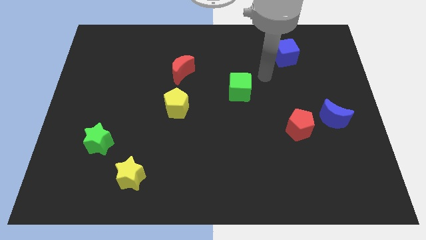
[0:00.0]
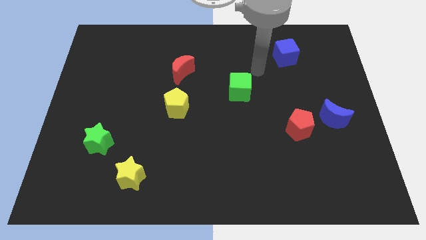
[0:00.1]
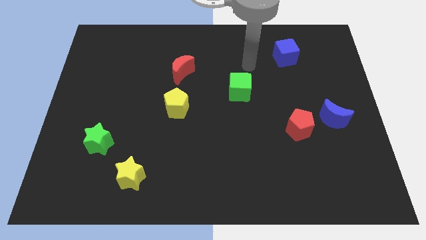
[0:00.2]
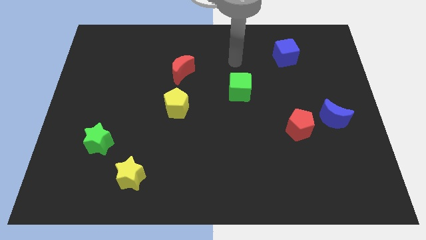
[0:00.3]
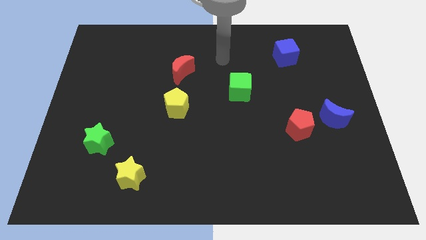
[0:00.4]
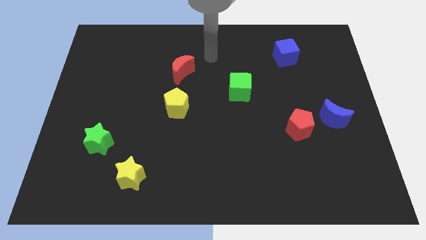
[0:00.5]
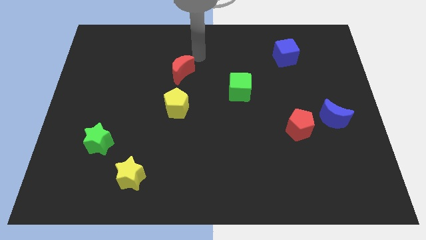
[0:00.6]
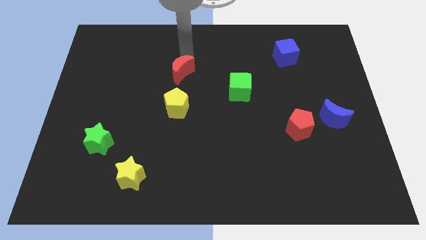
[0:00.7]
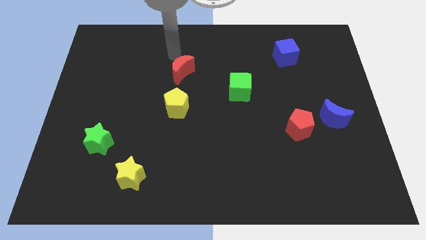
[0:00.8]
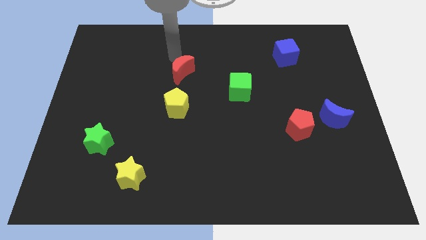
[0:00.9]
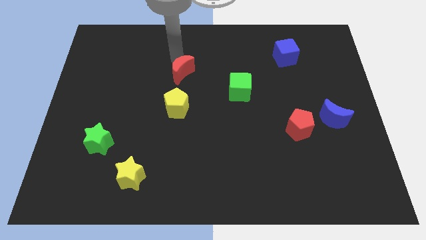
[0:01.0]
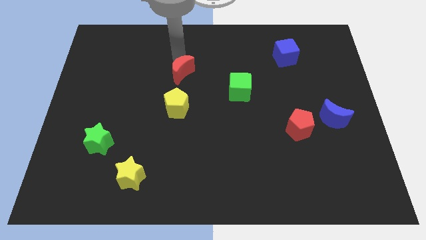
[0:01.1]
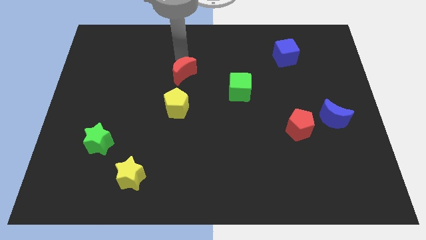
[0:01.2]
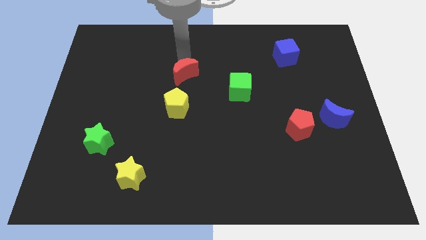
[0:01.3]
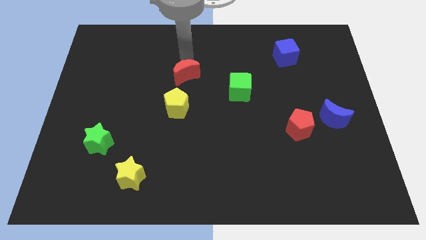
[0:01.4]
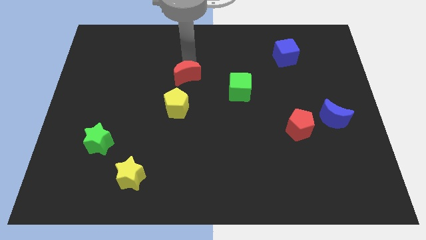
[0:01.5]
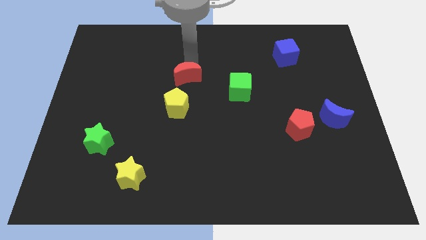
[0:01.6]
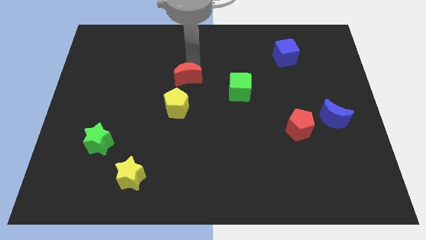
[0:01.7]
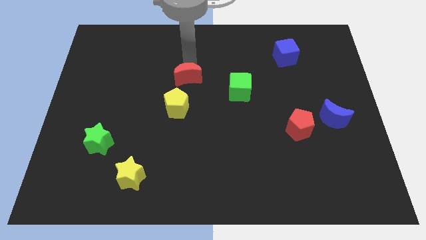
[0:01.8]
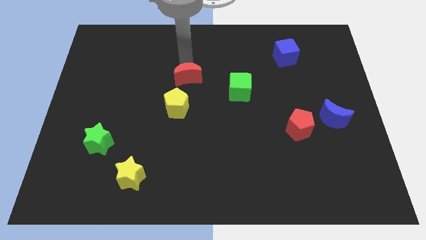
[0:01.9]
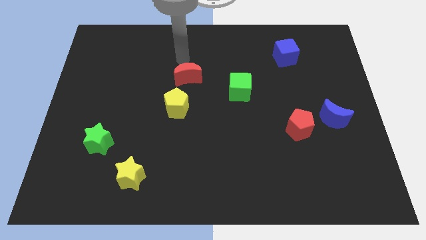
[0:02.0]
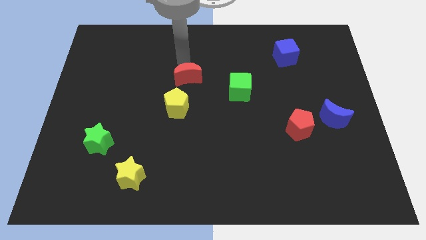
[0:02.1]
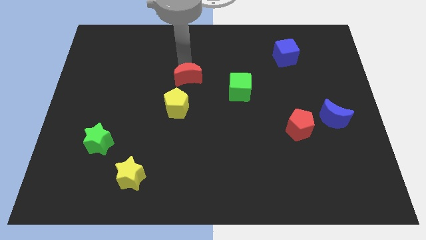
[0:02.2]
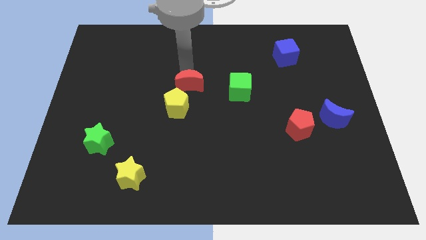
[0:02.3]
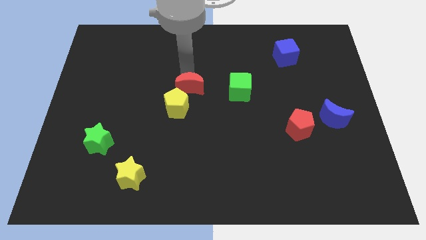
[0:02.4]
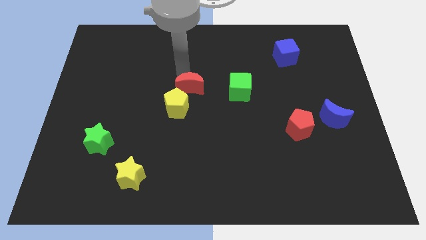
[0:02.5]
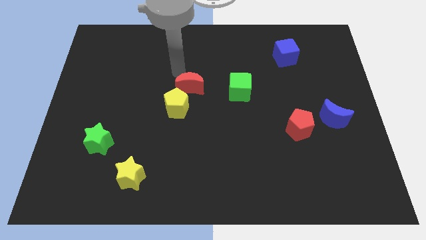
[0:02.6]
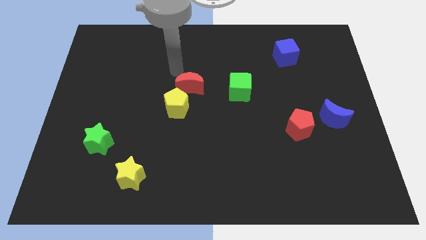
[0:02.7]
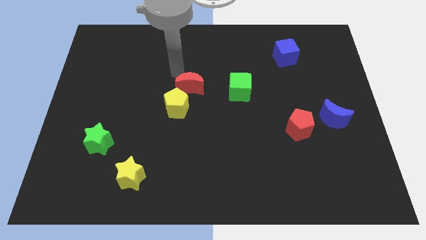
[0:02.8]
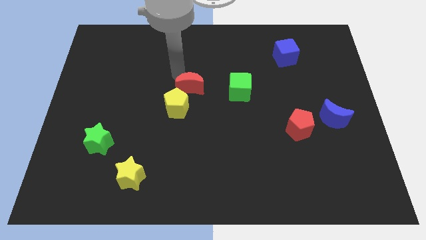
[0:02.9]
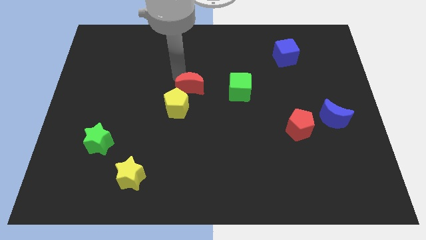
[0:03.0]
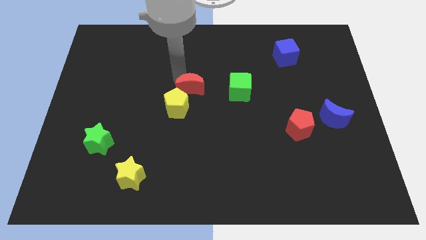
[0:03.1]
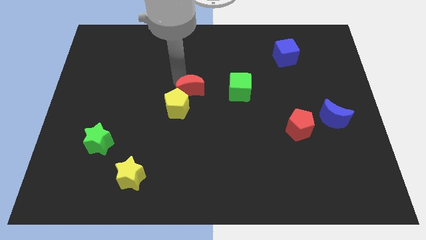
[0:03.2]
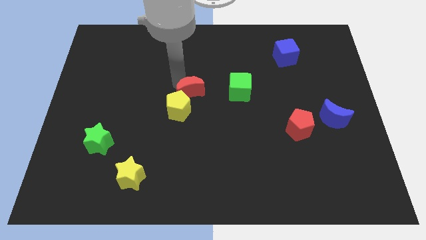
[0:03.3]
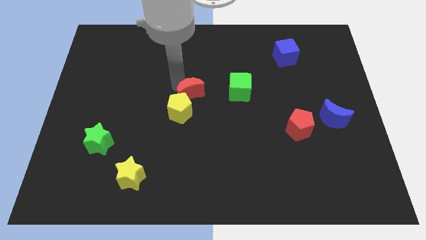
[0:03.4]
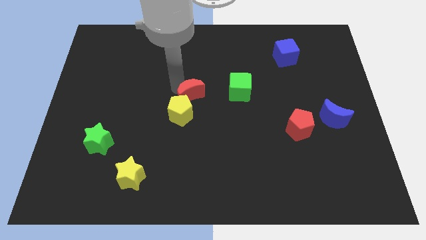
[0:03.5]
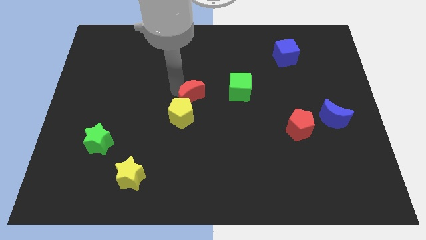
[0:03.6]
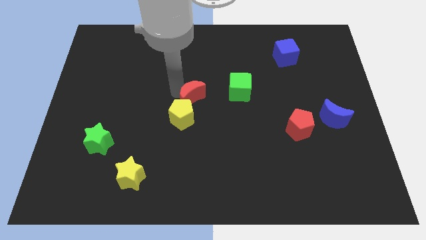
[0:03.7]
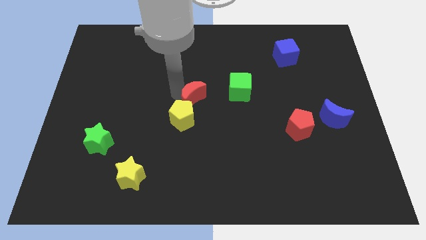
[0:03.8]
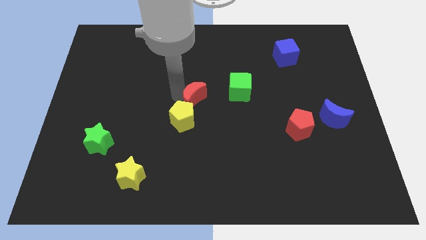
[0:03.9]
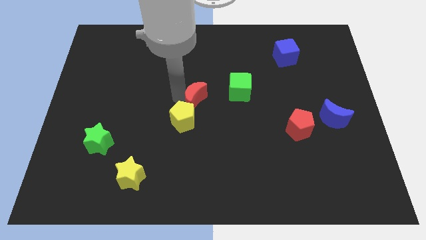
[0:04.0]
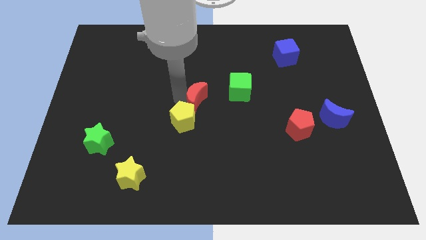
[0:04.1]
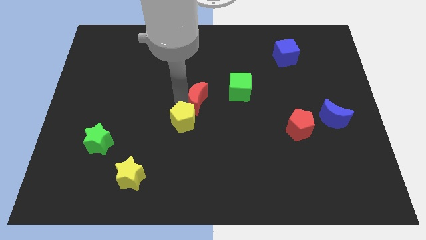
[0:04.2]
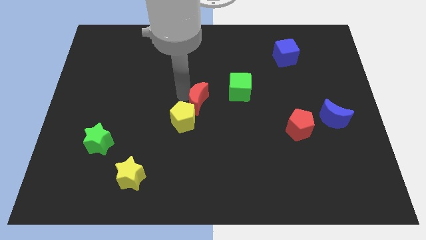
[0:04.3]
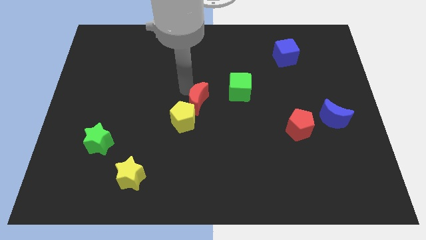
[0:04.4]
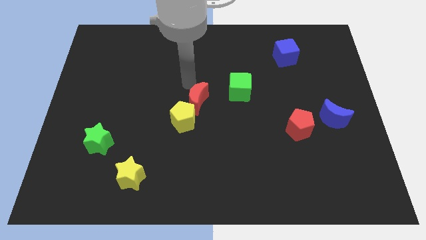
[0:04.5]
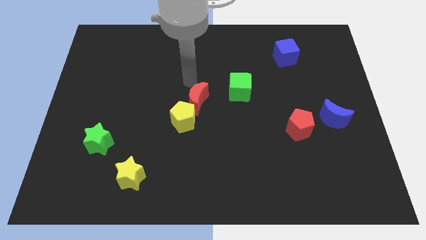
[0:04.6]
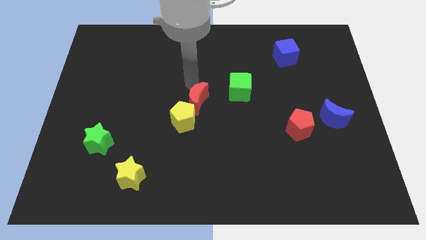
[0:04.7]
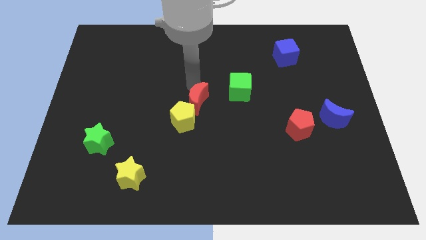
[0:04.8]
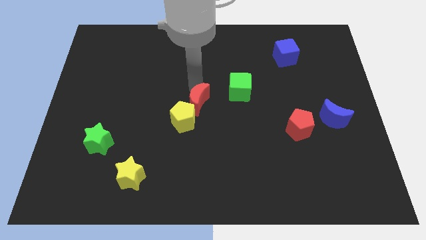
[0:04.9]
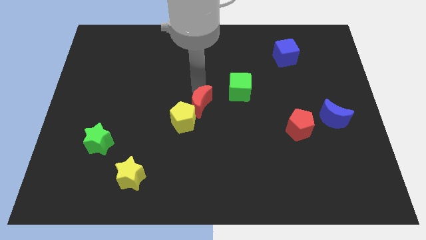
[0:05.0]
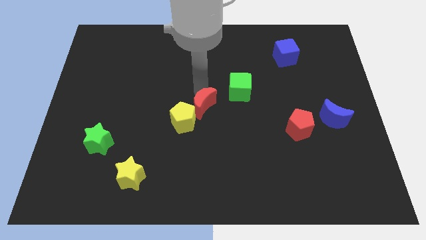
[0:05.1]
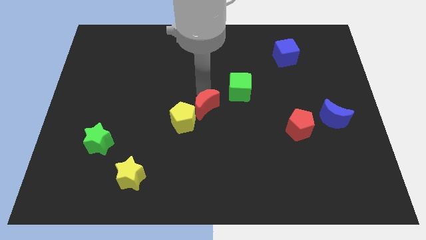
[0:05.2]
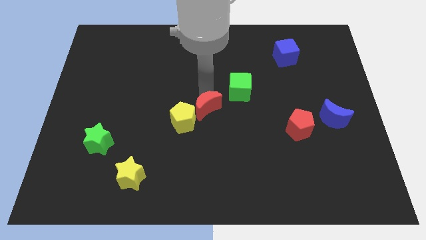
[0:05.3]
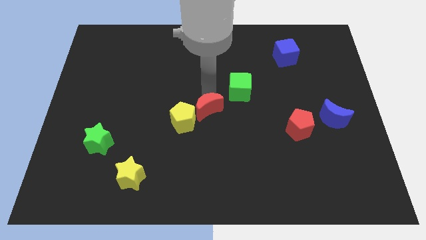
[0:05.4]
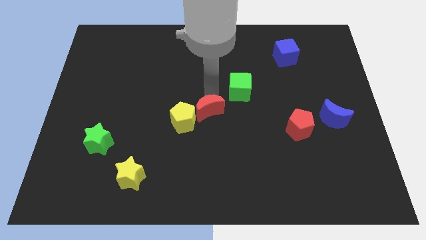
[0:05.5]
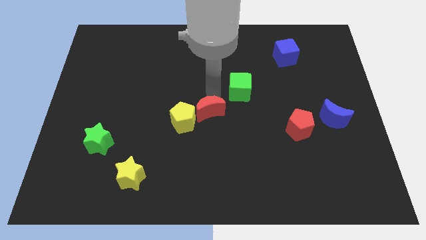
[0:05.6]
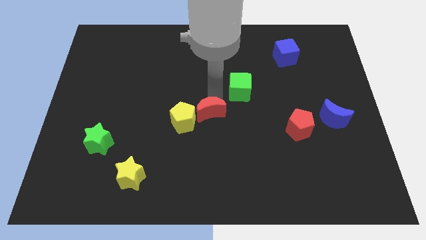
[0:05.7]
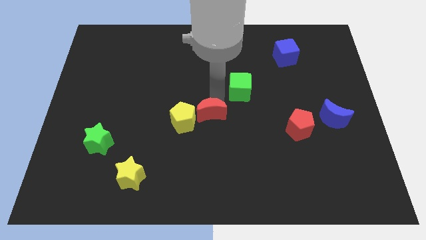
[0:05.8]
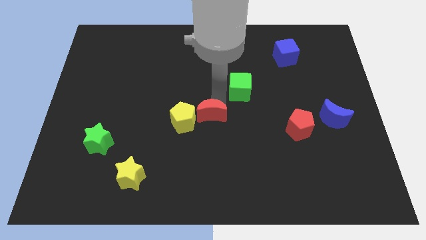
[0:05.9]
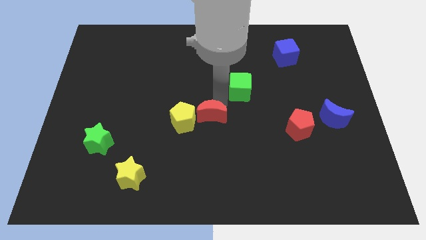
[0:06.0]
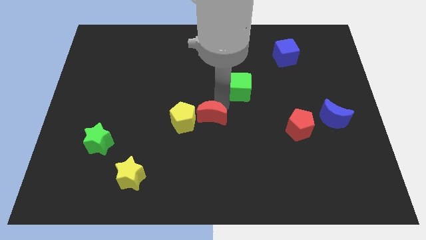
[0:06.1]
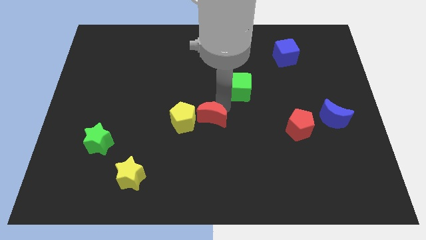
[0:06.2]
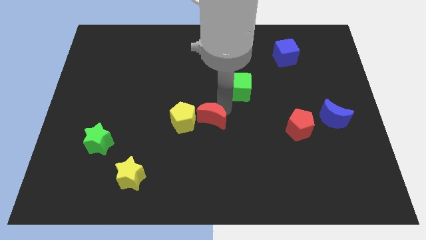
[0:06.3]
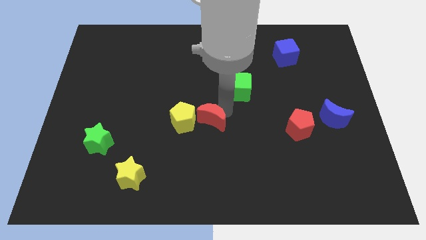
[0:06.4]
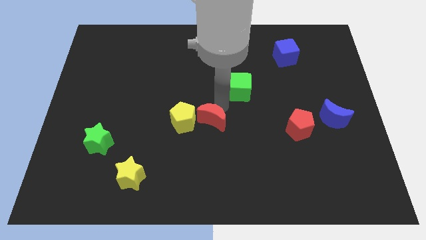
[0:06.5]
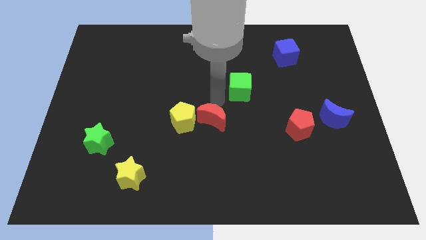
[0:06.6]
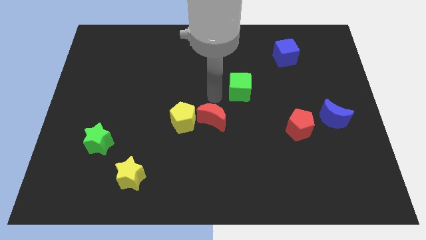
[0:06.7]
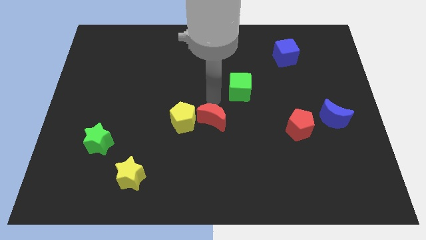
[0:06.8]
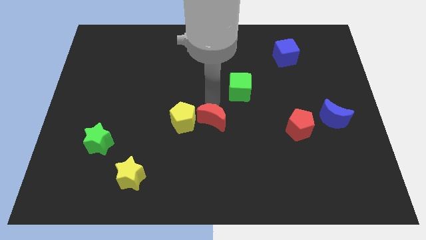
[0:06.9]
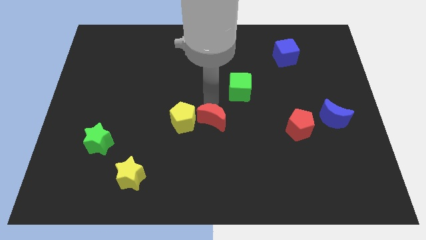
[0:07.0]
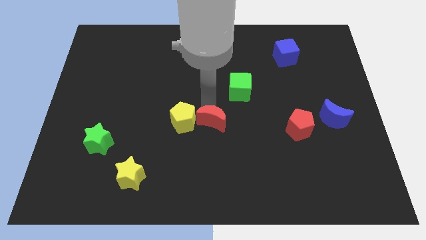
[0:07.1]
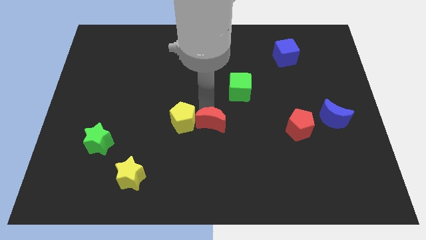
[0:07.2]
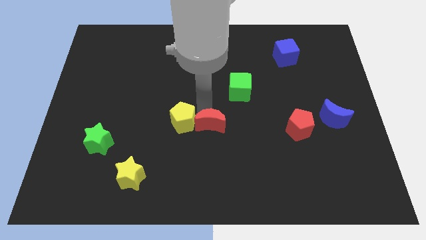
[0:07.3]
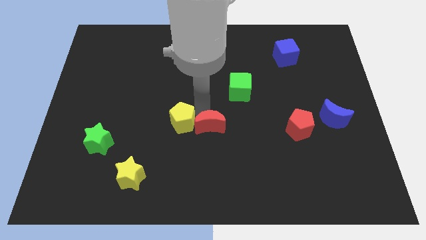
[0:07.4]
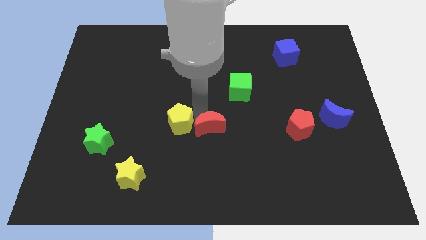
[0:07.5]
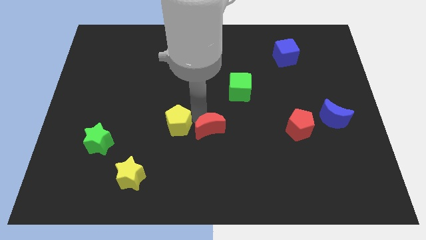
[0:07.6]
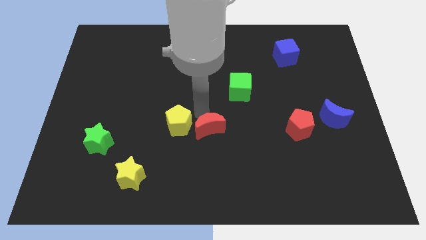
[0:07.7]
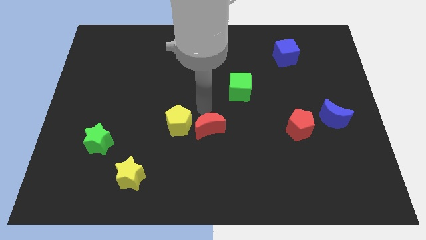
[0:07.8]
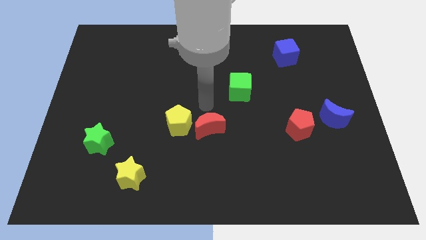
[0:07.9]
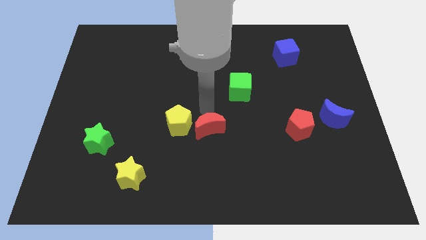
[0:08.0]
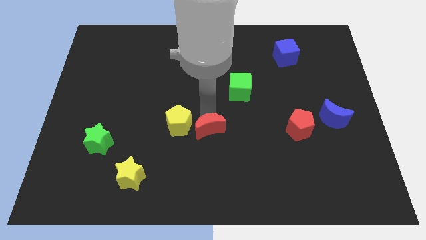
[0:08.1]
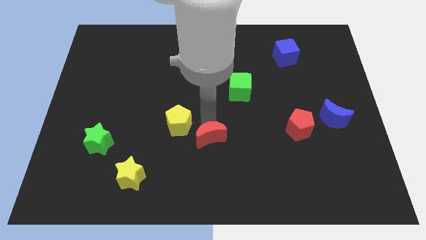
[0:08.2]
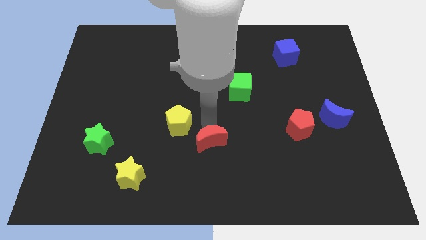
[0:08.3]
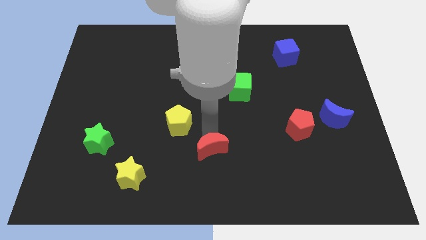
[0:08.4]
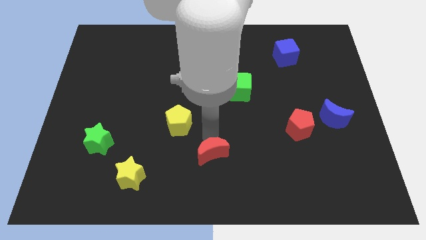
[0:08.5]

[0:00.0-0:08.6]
slide the red moon to the bottom side
